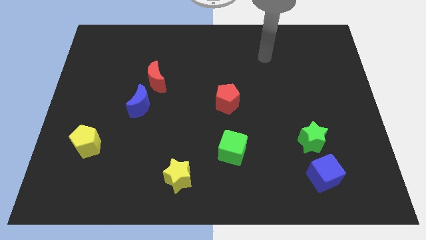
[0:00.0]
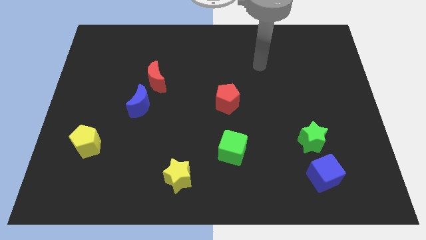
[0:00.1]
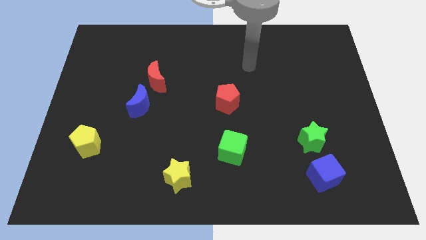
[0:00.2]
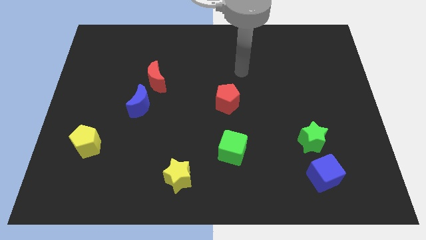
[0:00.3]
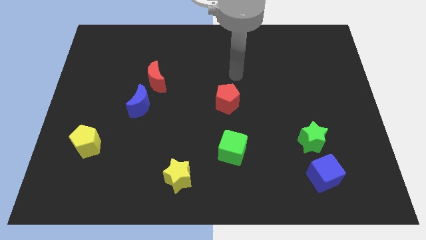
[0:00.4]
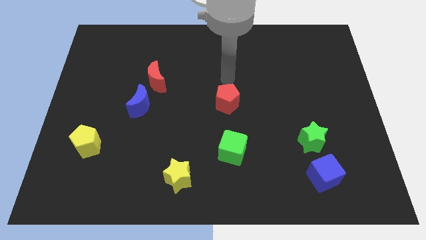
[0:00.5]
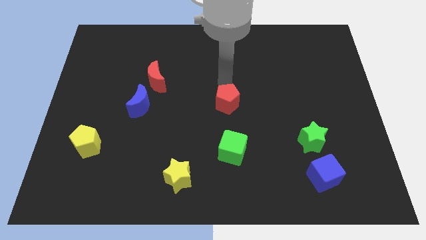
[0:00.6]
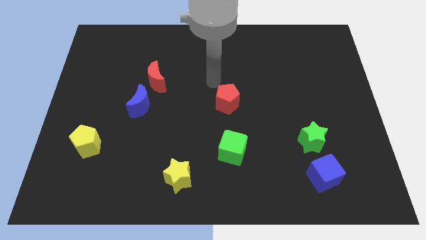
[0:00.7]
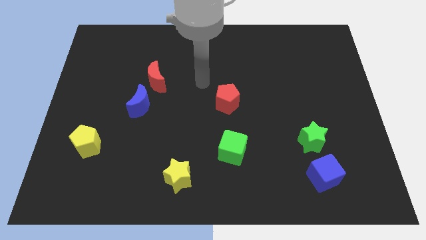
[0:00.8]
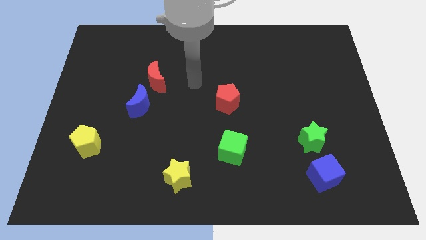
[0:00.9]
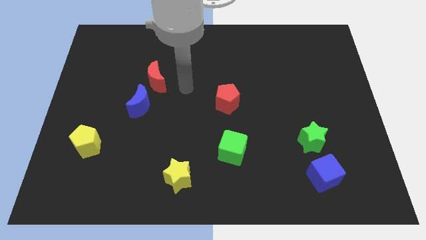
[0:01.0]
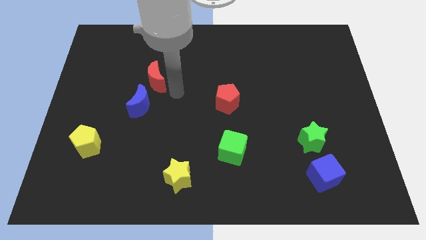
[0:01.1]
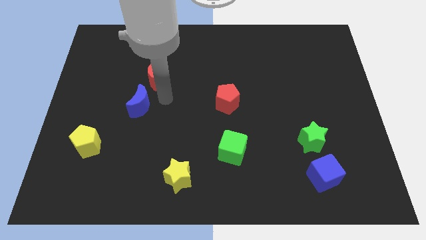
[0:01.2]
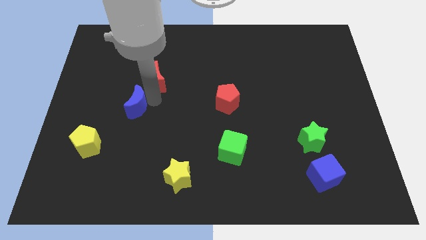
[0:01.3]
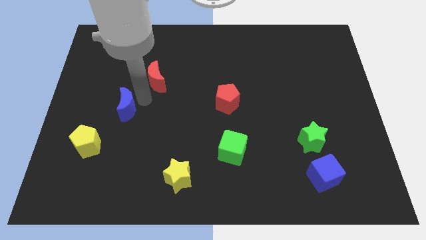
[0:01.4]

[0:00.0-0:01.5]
move the red moon away from the blue moon

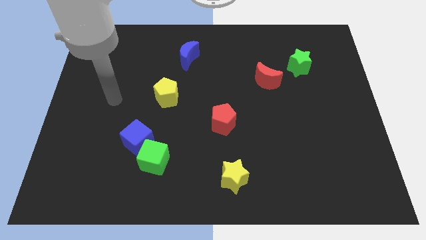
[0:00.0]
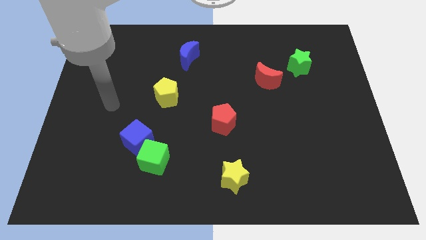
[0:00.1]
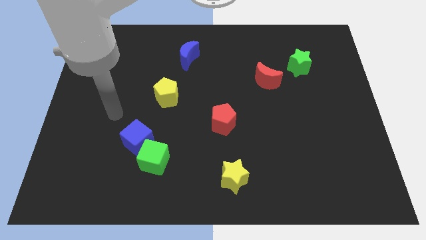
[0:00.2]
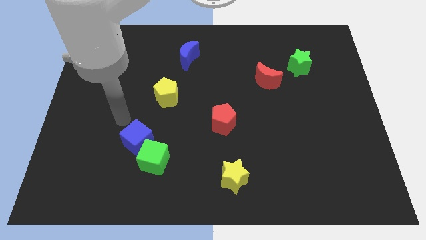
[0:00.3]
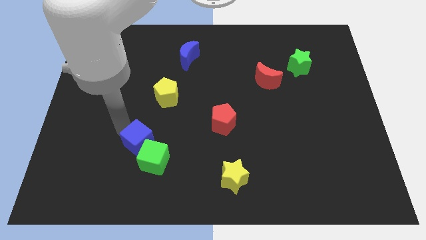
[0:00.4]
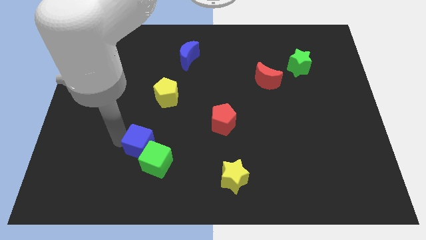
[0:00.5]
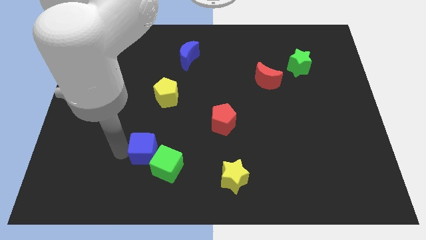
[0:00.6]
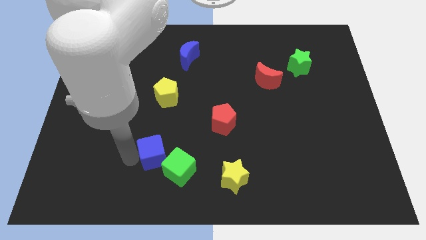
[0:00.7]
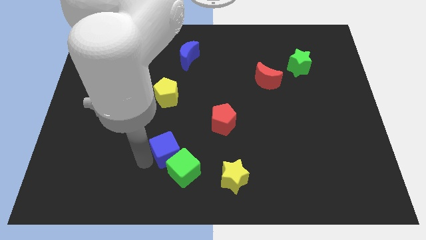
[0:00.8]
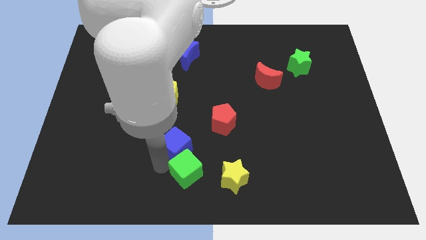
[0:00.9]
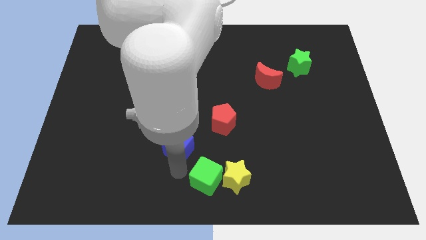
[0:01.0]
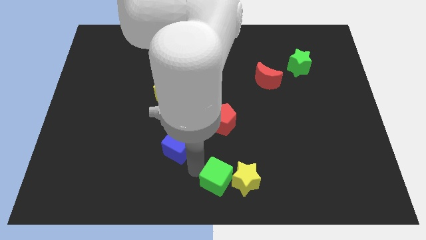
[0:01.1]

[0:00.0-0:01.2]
pull the blue cube apart from the green cube

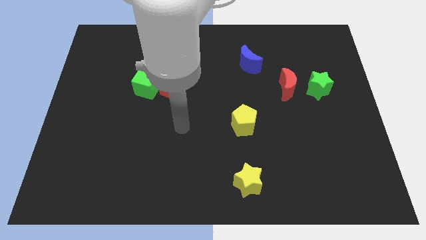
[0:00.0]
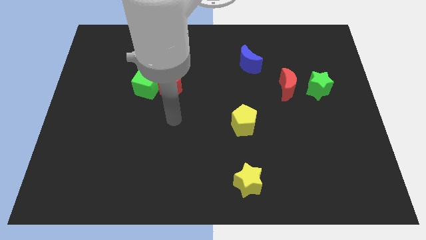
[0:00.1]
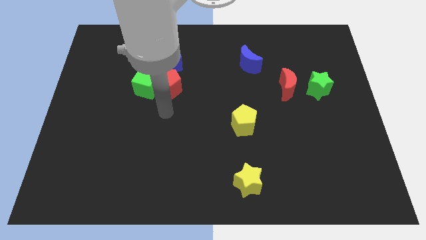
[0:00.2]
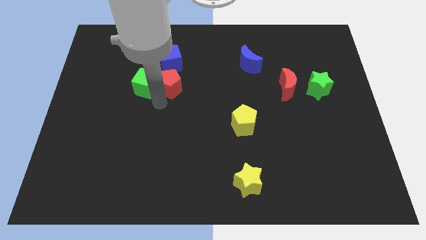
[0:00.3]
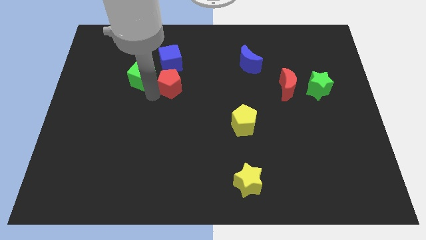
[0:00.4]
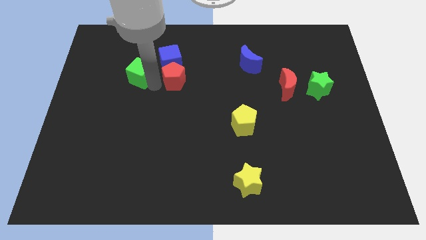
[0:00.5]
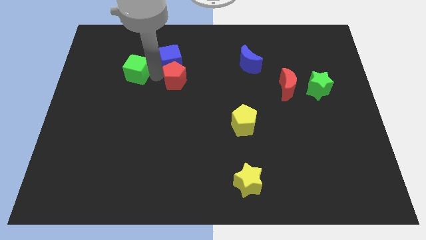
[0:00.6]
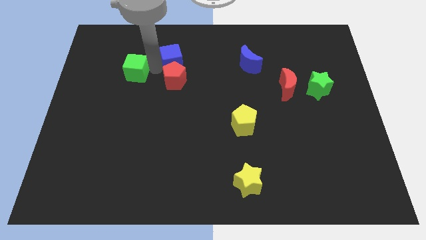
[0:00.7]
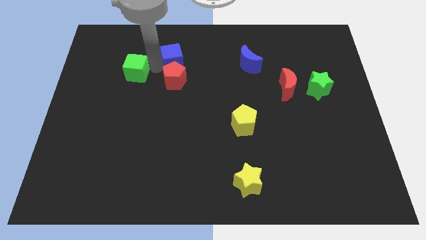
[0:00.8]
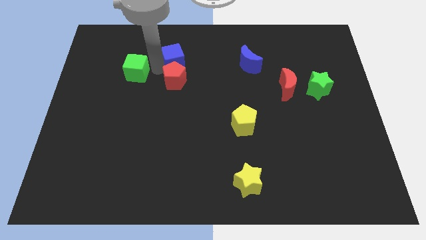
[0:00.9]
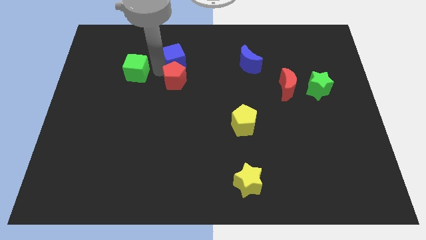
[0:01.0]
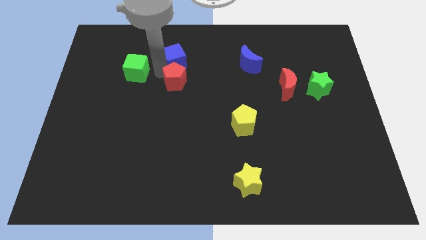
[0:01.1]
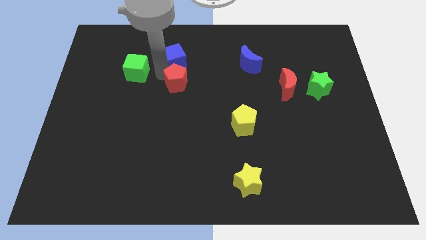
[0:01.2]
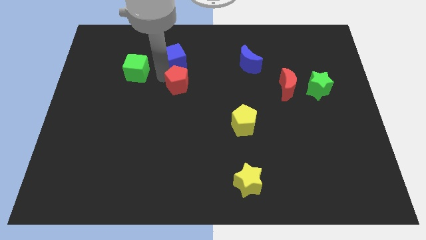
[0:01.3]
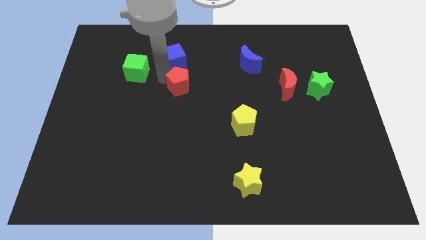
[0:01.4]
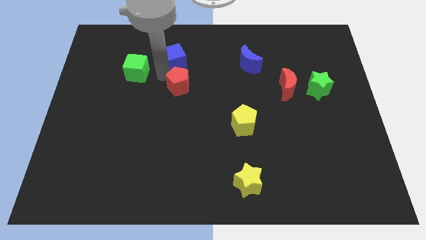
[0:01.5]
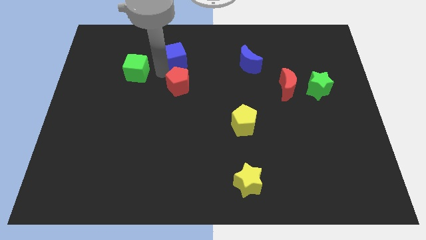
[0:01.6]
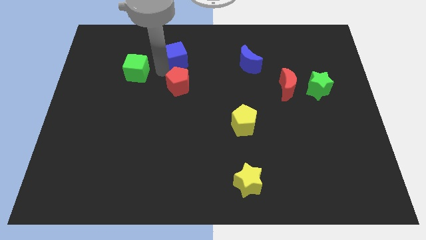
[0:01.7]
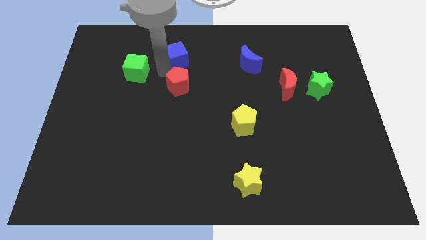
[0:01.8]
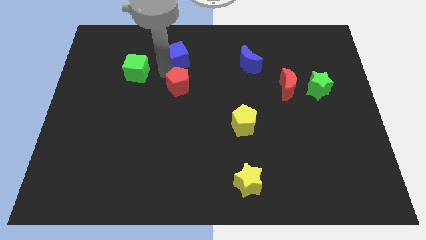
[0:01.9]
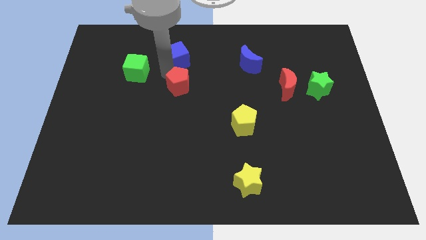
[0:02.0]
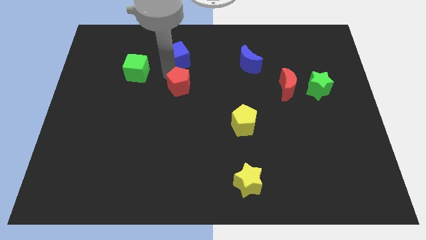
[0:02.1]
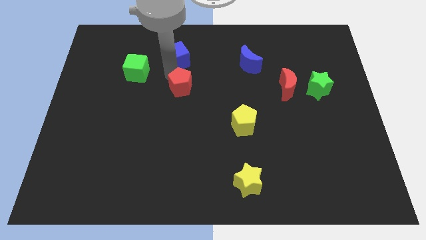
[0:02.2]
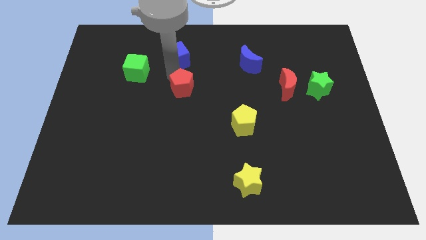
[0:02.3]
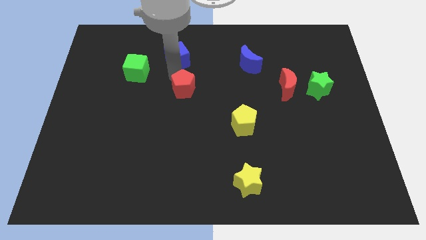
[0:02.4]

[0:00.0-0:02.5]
pull the red pentagon apart from the green cube and blue cube

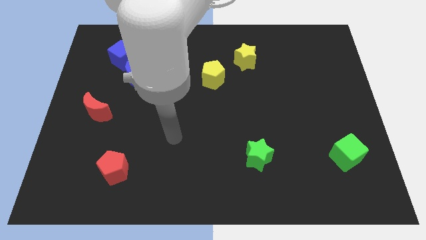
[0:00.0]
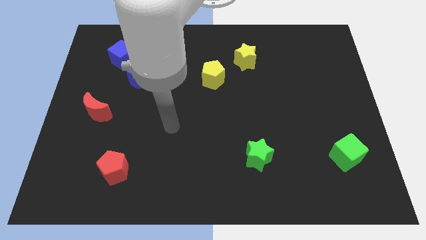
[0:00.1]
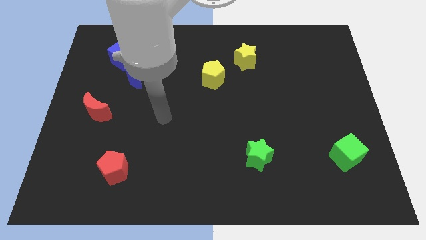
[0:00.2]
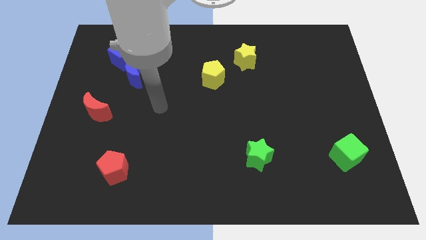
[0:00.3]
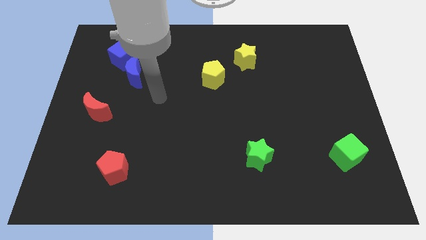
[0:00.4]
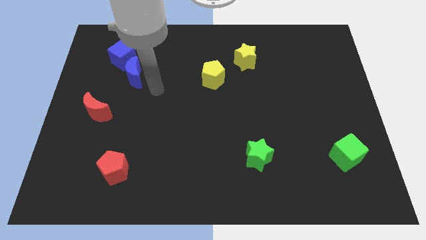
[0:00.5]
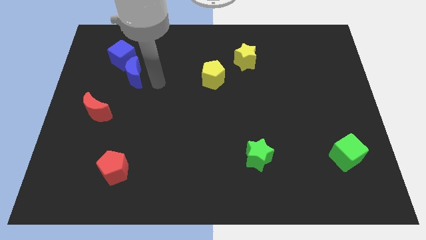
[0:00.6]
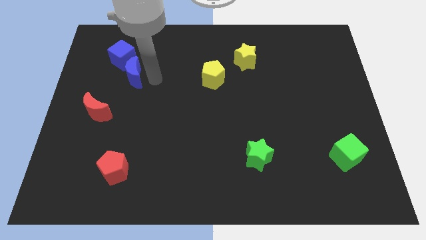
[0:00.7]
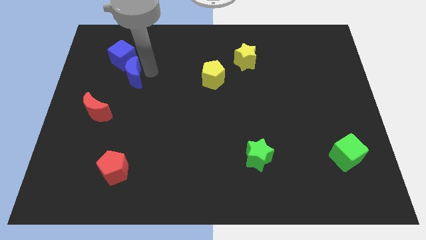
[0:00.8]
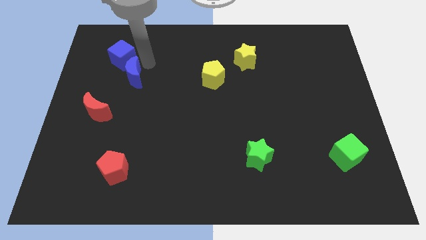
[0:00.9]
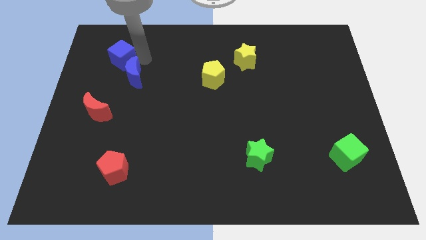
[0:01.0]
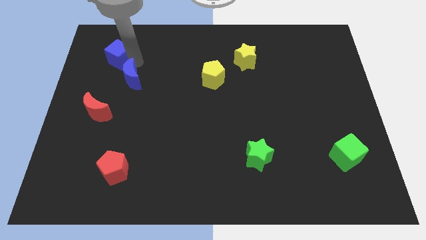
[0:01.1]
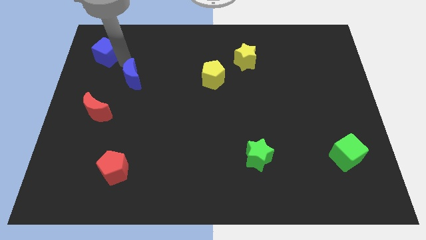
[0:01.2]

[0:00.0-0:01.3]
separate the blue moon from the blue cube

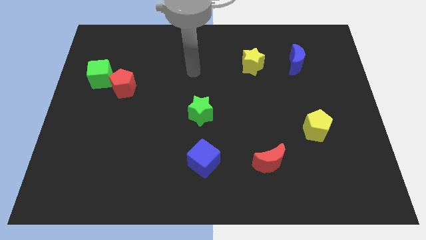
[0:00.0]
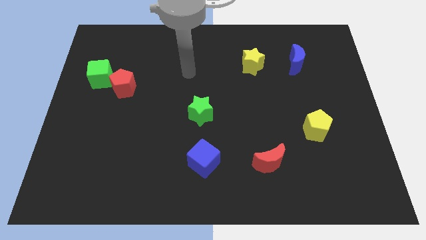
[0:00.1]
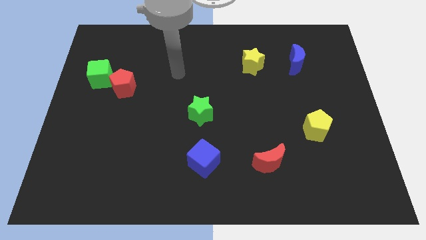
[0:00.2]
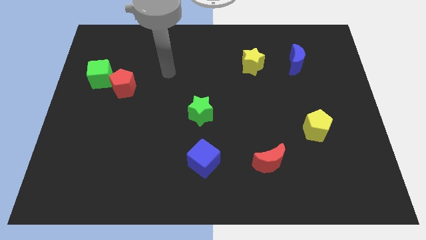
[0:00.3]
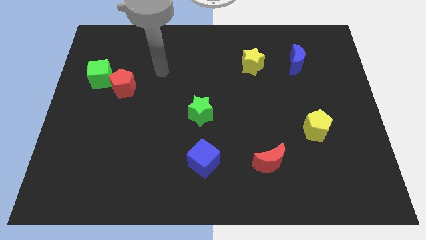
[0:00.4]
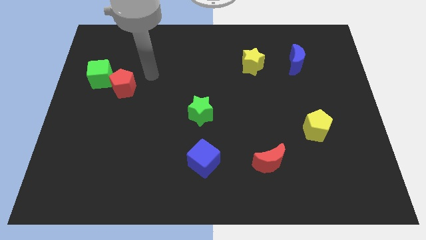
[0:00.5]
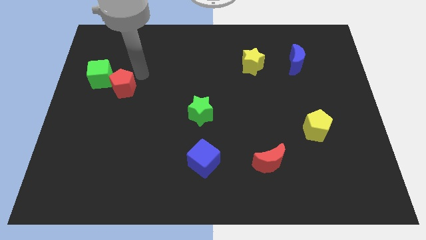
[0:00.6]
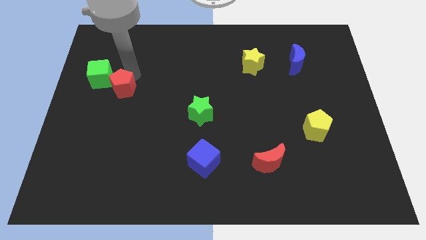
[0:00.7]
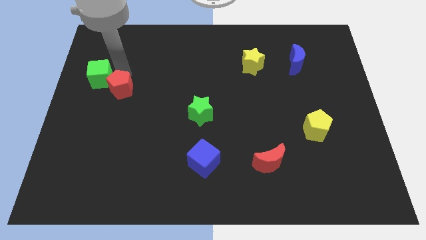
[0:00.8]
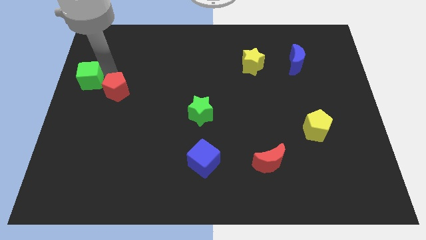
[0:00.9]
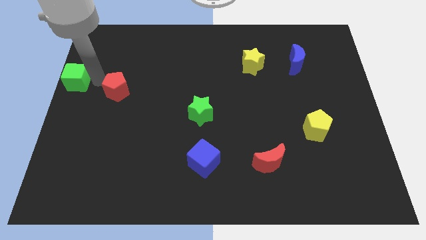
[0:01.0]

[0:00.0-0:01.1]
move the red pentagon away from the green cube

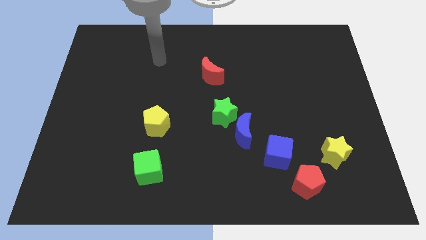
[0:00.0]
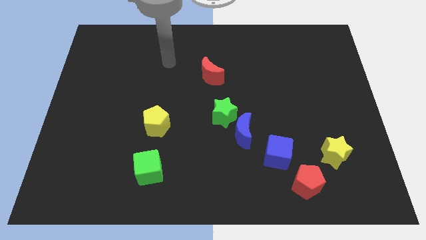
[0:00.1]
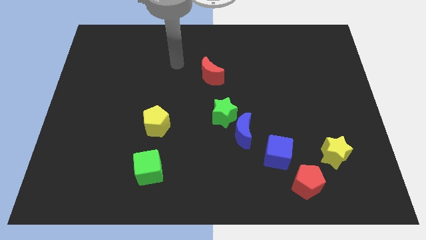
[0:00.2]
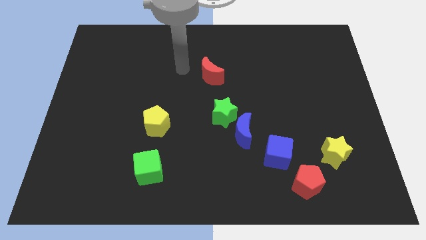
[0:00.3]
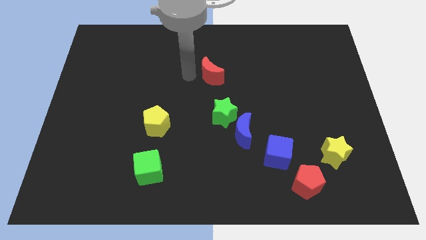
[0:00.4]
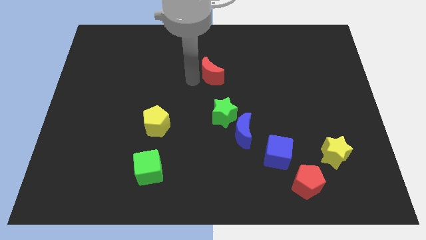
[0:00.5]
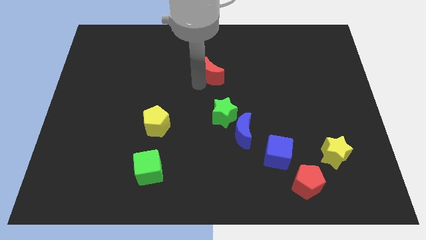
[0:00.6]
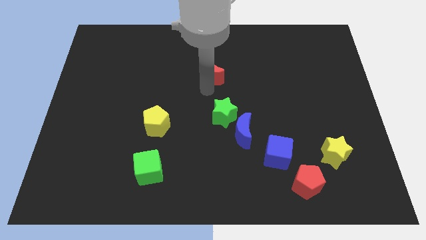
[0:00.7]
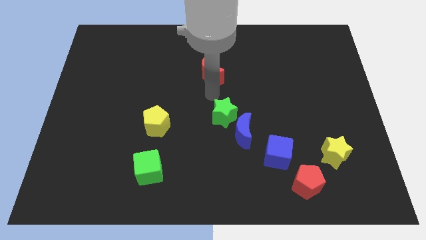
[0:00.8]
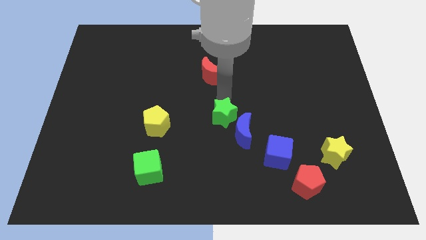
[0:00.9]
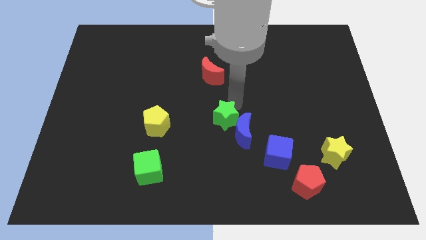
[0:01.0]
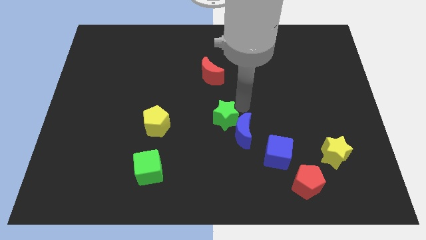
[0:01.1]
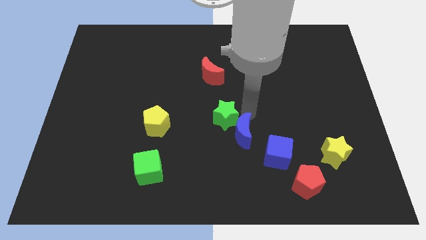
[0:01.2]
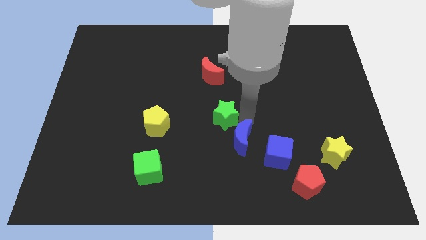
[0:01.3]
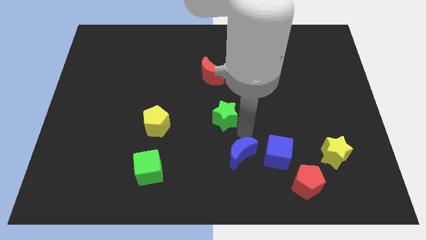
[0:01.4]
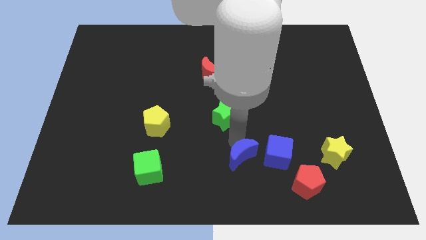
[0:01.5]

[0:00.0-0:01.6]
separate the green star from the blue moon

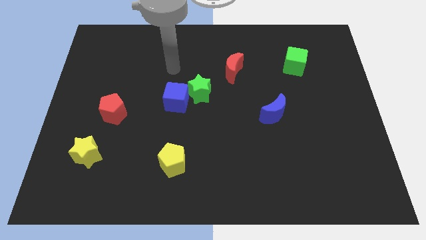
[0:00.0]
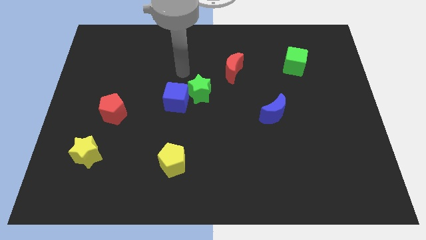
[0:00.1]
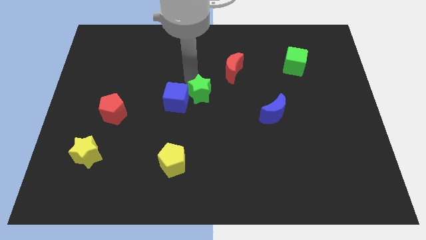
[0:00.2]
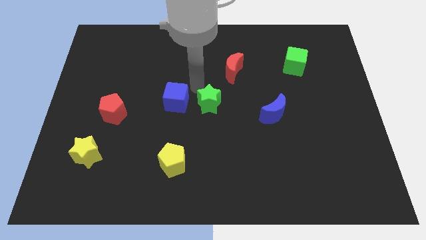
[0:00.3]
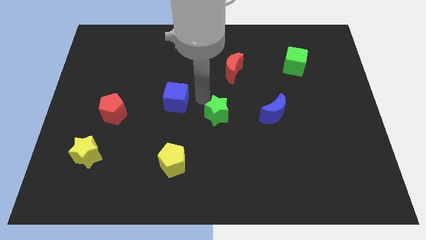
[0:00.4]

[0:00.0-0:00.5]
move the blue cube away from the green star
